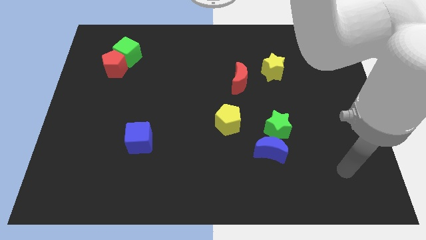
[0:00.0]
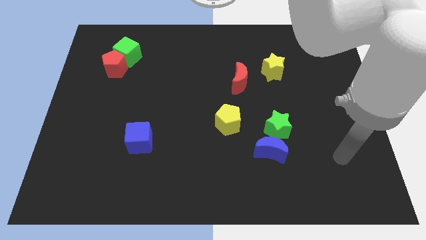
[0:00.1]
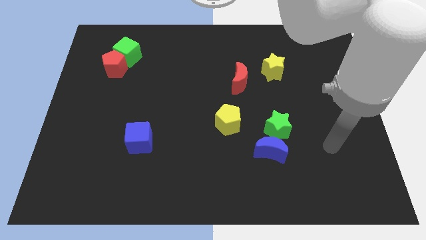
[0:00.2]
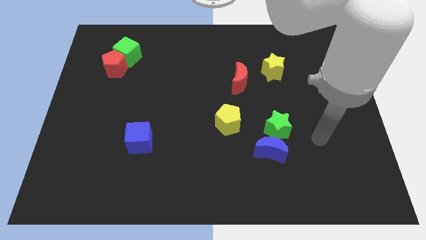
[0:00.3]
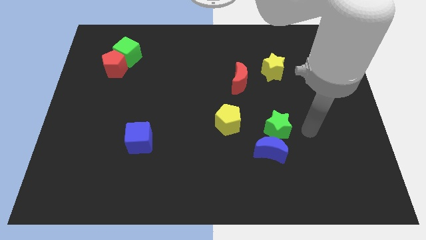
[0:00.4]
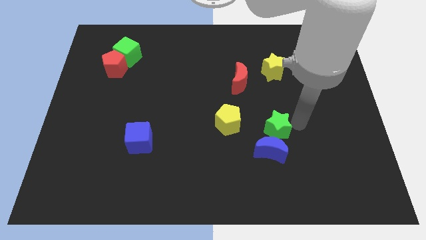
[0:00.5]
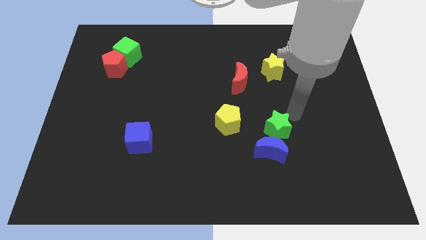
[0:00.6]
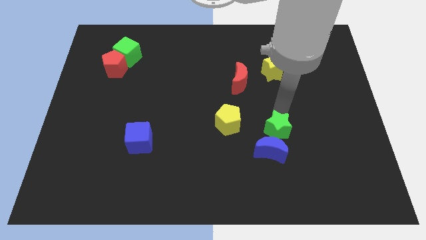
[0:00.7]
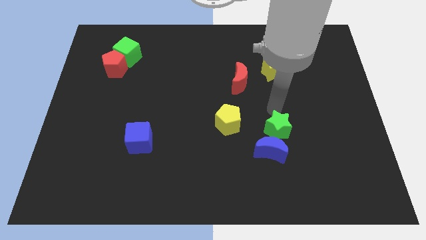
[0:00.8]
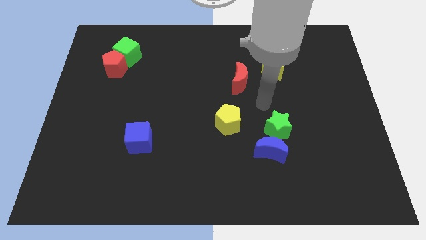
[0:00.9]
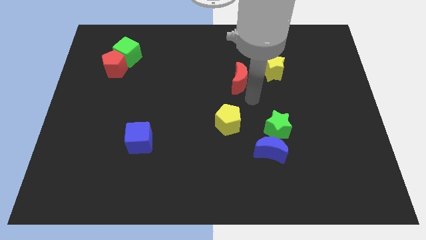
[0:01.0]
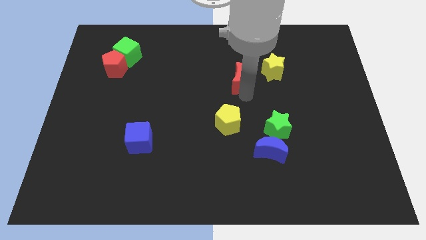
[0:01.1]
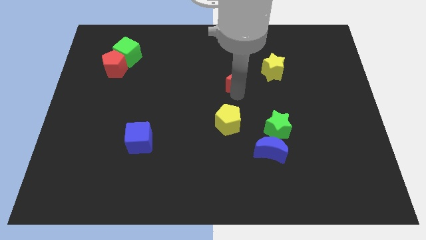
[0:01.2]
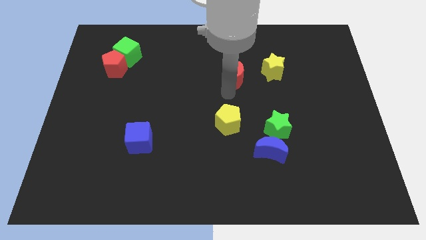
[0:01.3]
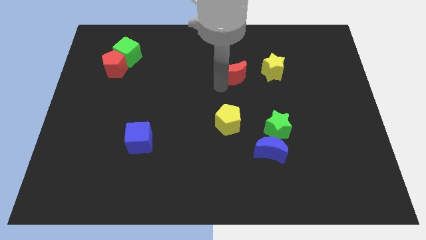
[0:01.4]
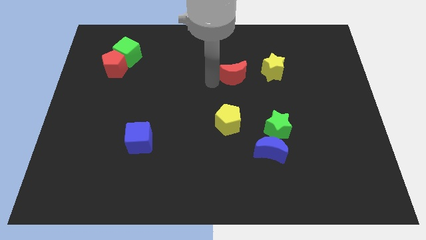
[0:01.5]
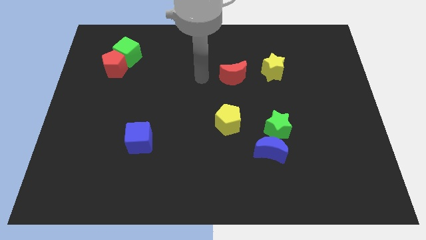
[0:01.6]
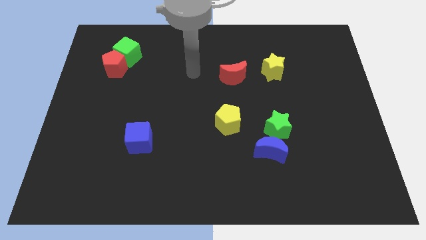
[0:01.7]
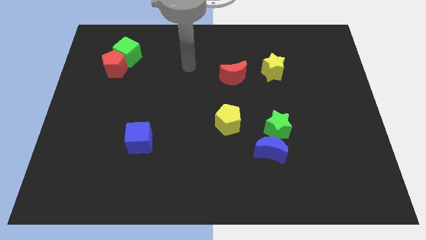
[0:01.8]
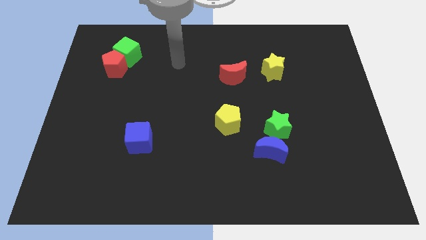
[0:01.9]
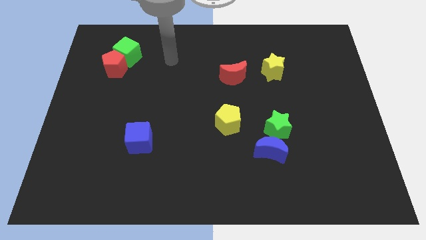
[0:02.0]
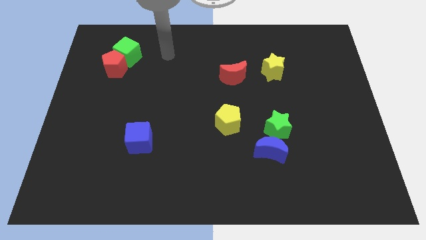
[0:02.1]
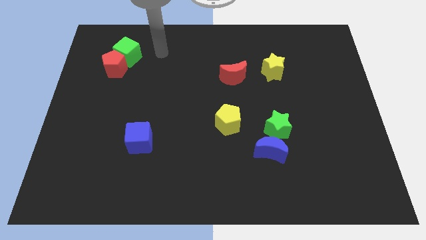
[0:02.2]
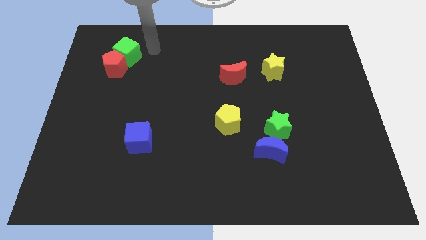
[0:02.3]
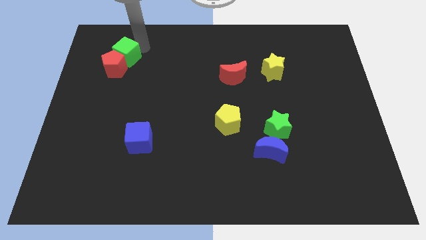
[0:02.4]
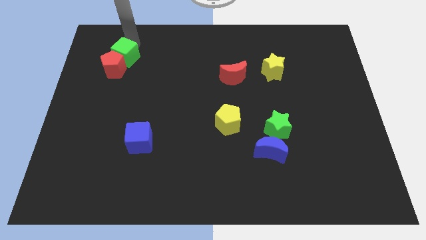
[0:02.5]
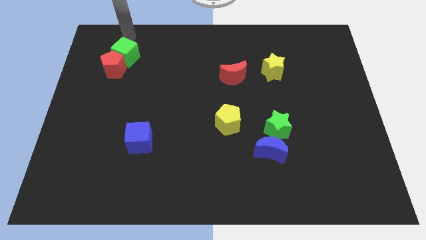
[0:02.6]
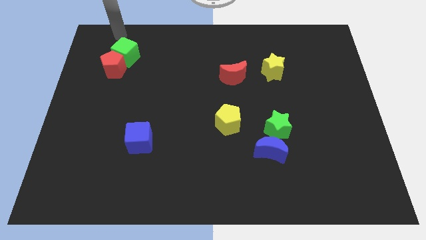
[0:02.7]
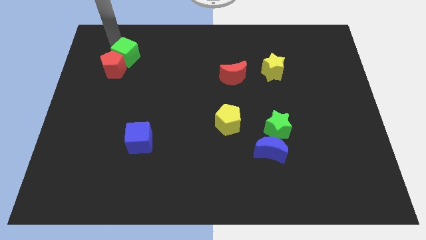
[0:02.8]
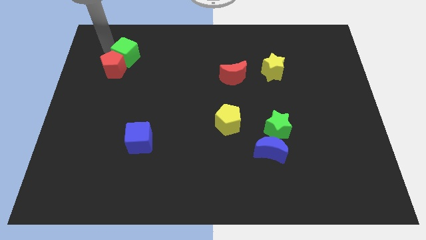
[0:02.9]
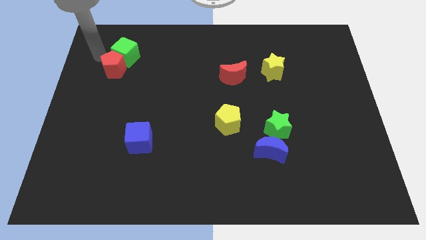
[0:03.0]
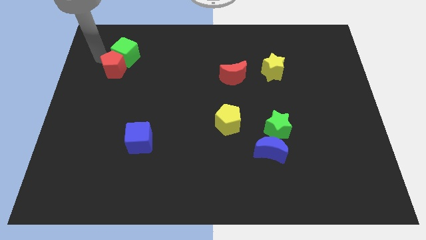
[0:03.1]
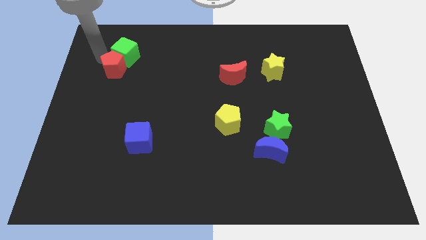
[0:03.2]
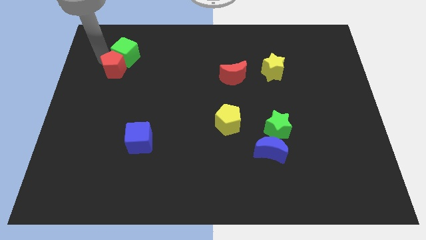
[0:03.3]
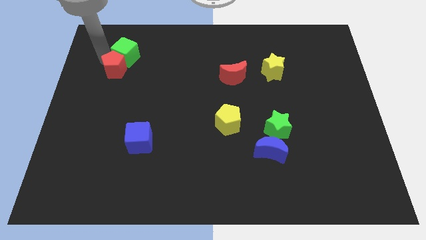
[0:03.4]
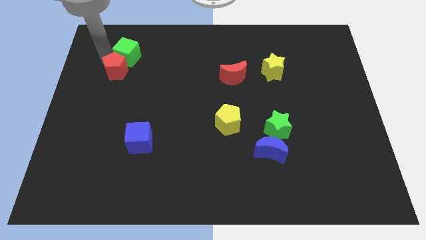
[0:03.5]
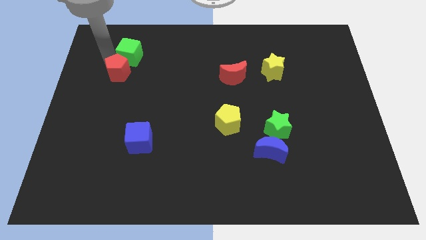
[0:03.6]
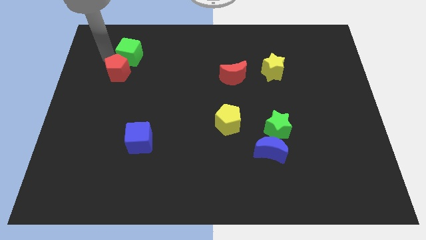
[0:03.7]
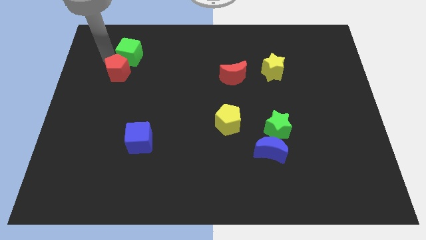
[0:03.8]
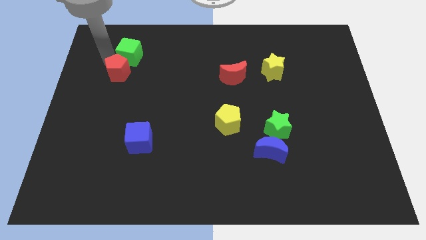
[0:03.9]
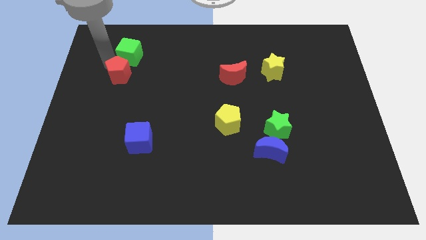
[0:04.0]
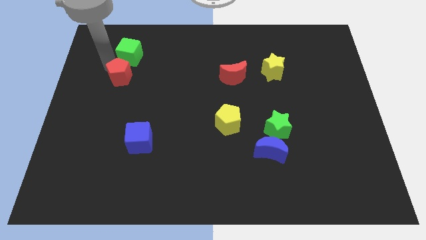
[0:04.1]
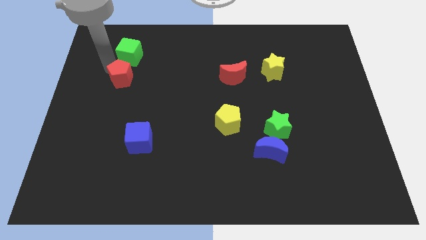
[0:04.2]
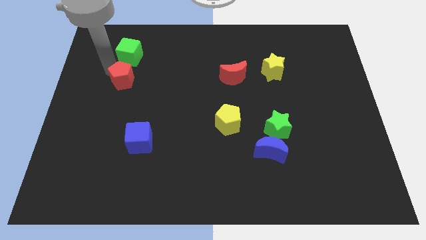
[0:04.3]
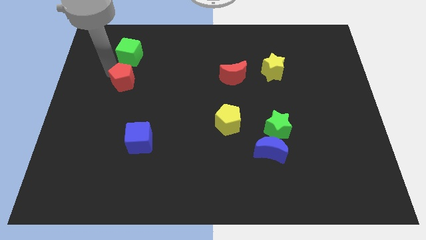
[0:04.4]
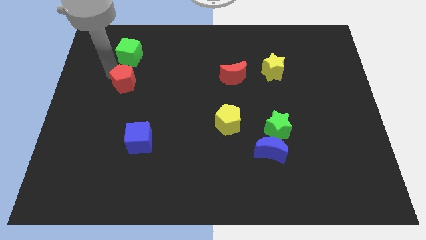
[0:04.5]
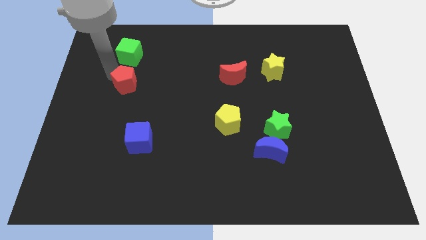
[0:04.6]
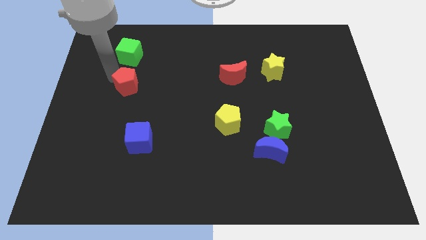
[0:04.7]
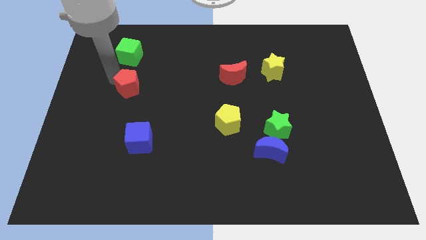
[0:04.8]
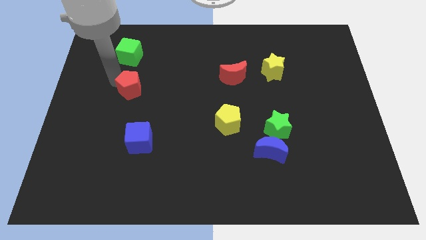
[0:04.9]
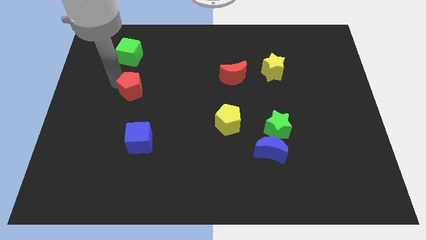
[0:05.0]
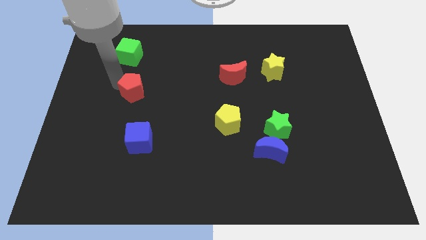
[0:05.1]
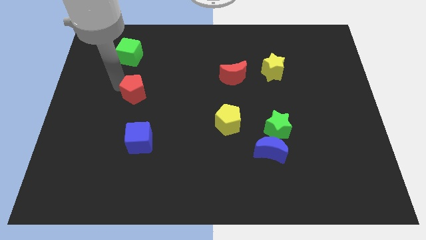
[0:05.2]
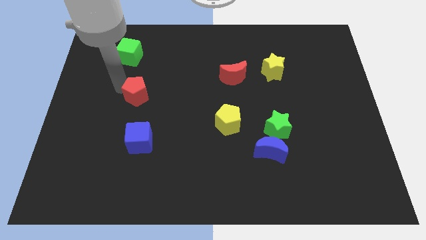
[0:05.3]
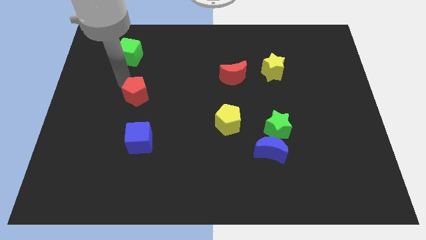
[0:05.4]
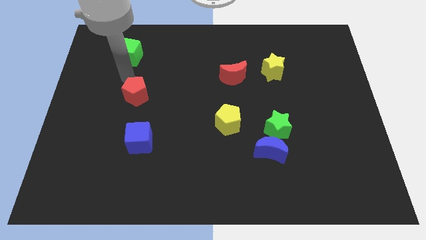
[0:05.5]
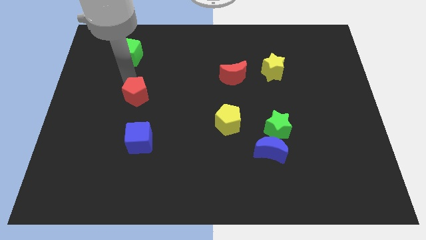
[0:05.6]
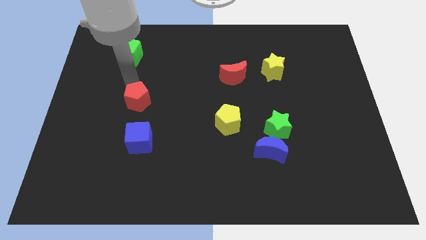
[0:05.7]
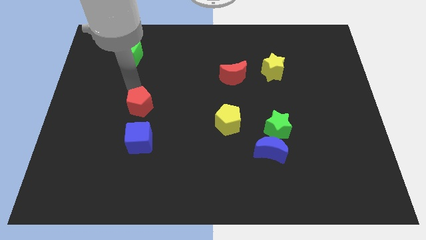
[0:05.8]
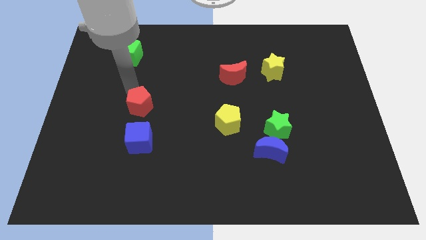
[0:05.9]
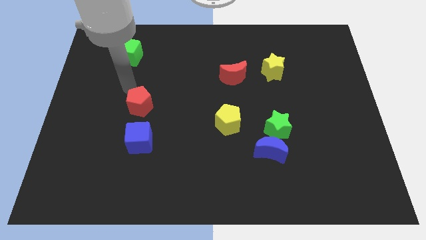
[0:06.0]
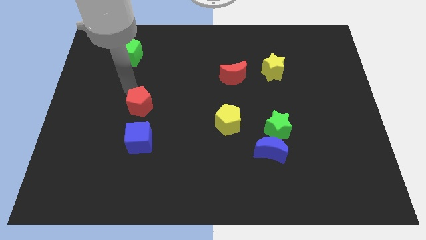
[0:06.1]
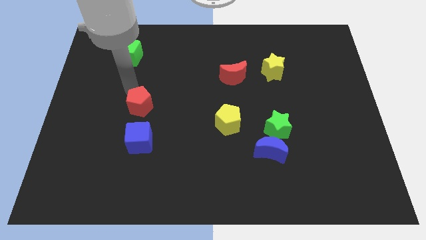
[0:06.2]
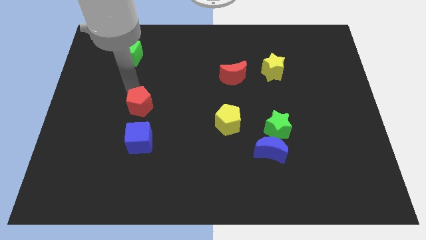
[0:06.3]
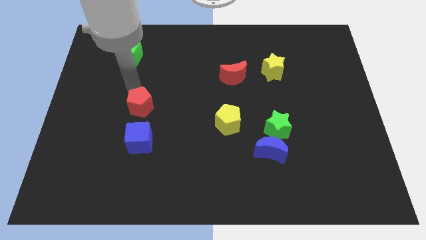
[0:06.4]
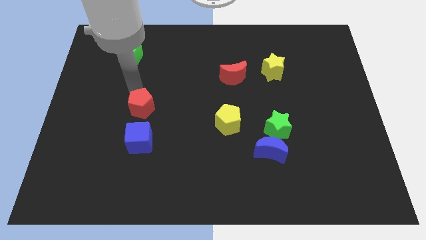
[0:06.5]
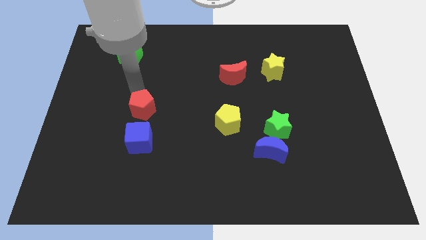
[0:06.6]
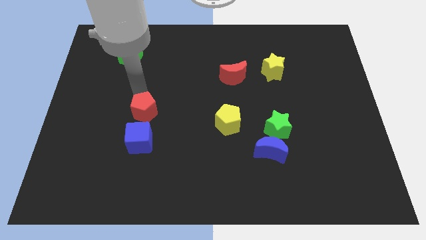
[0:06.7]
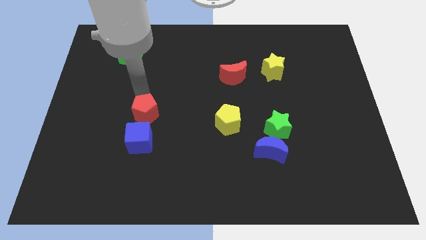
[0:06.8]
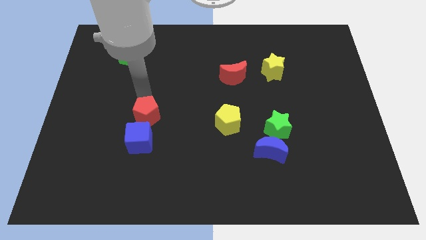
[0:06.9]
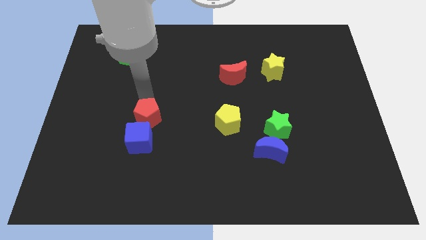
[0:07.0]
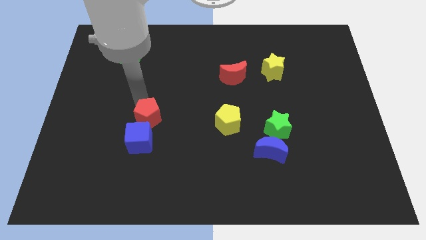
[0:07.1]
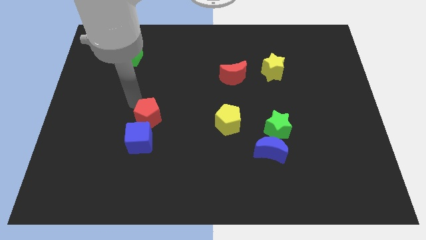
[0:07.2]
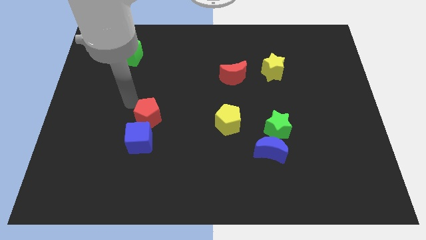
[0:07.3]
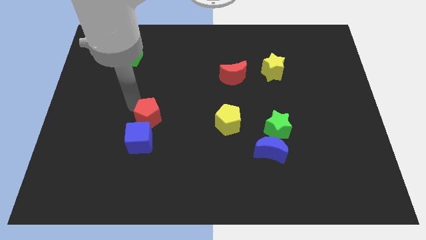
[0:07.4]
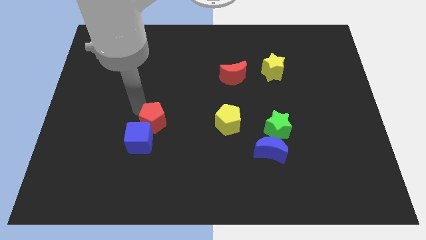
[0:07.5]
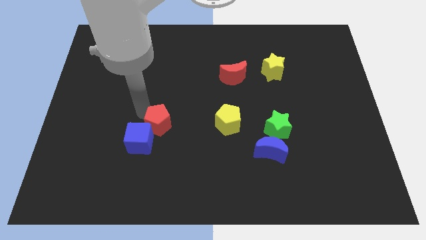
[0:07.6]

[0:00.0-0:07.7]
put the red pentagon to the right of the blue cube
